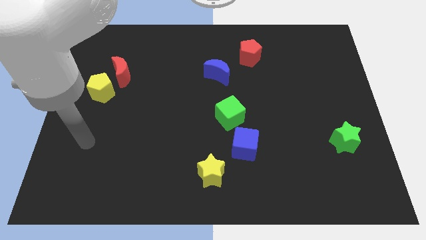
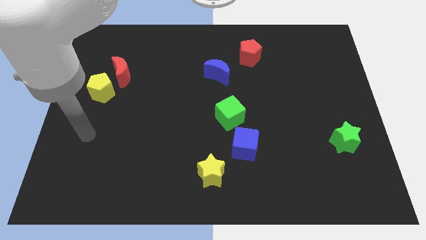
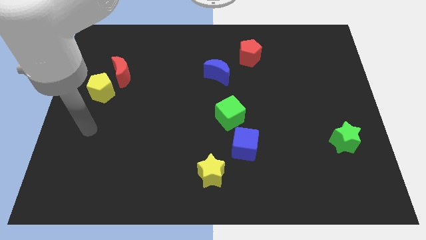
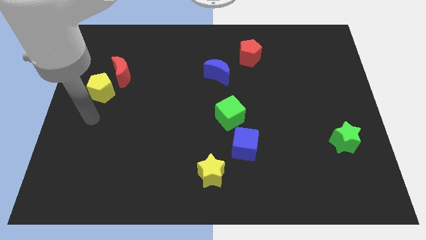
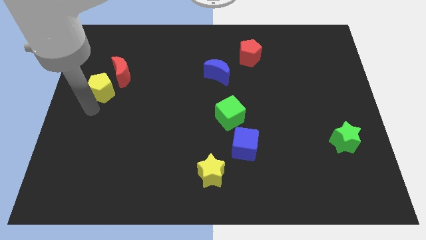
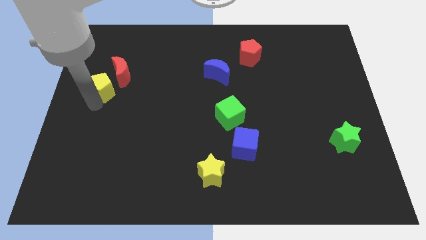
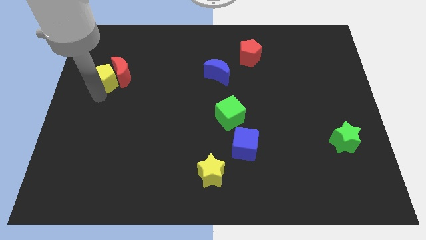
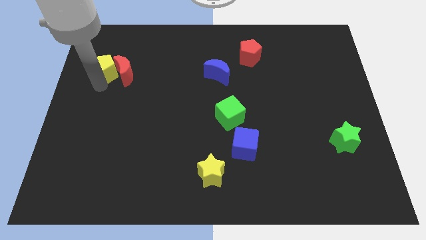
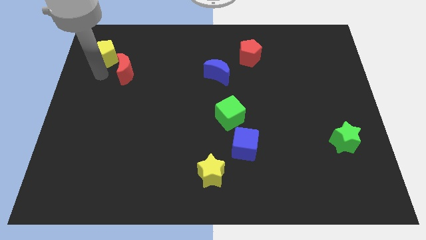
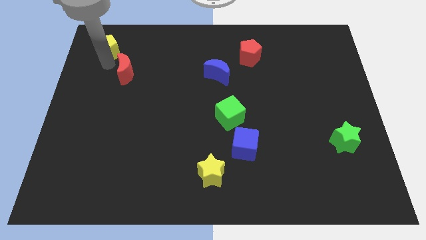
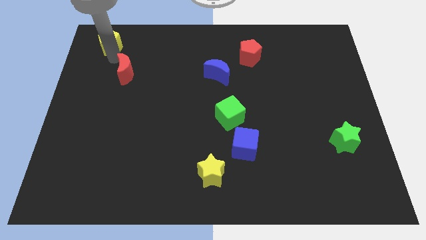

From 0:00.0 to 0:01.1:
pull the red moon apart from the yellow pentagon

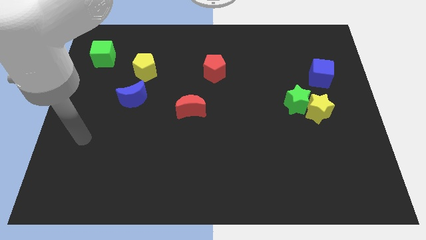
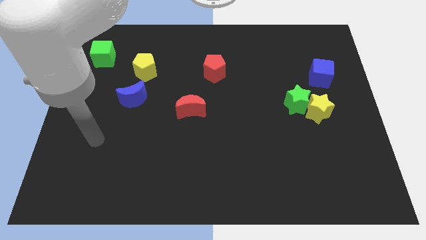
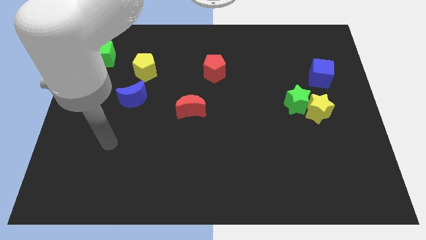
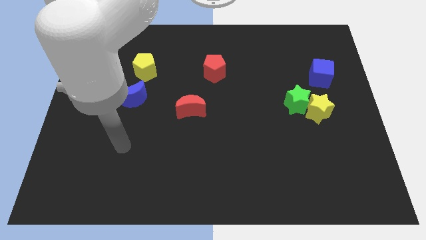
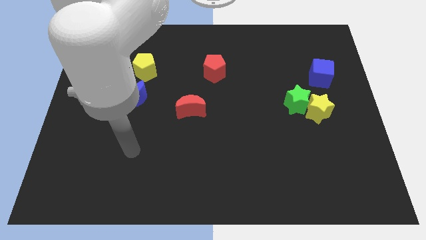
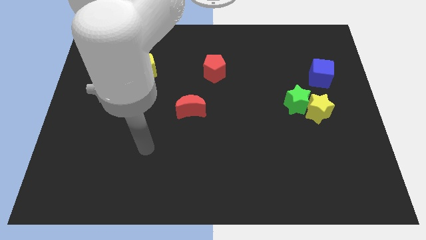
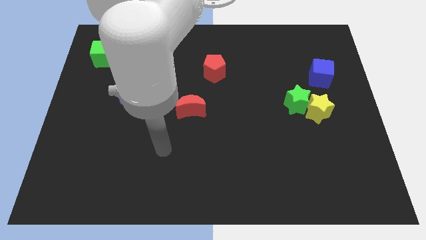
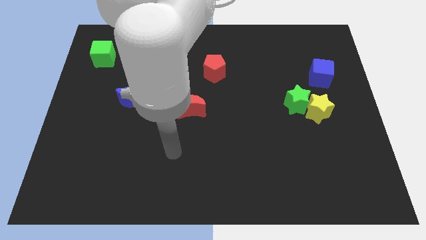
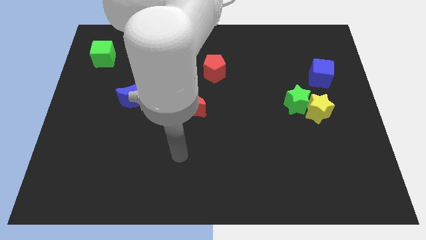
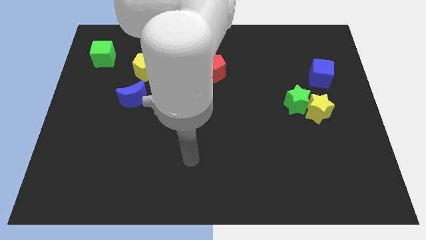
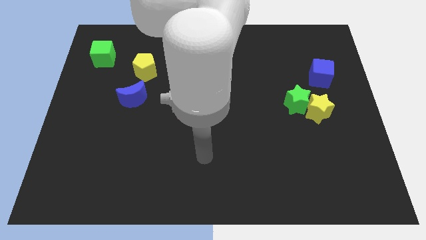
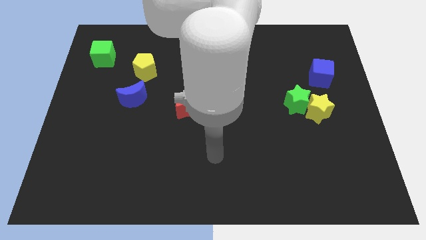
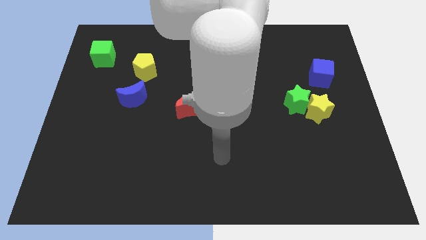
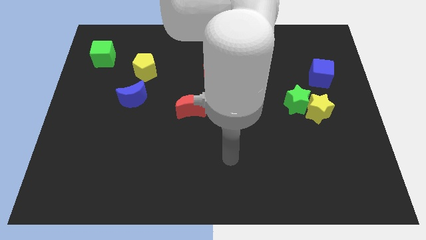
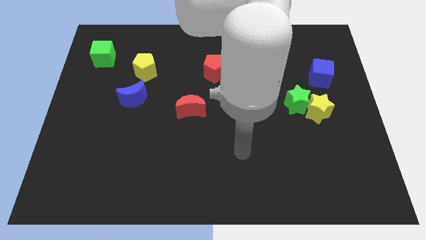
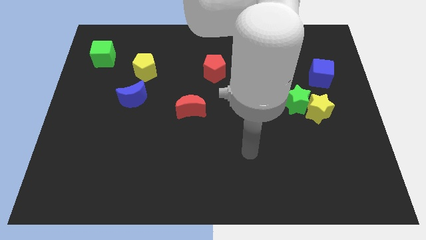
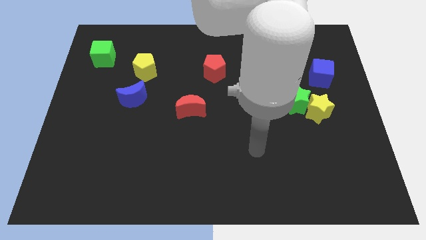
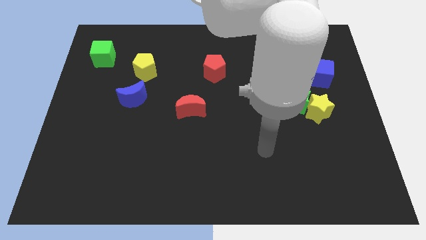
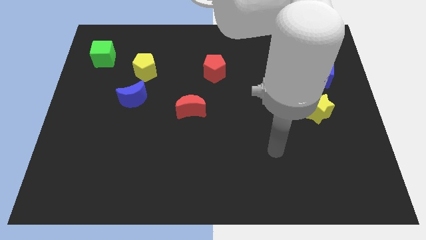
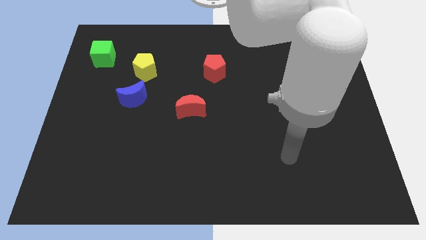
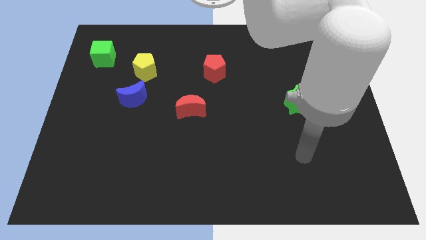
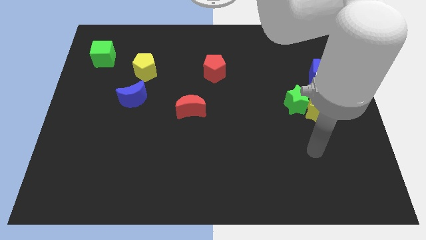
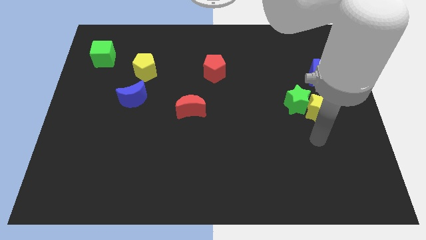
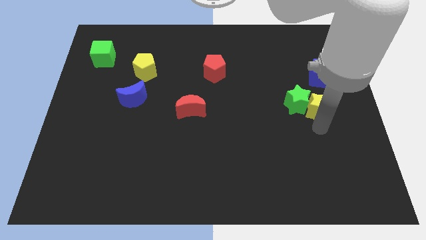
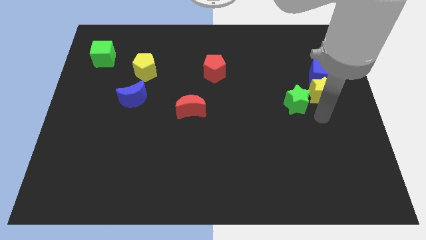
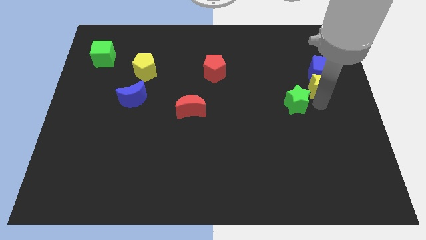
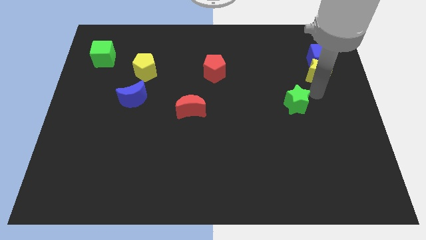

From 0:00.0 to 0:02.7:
pull the green star apart from the yellow star

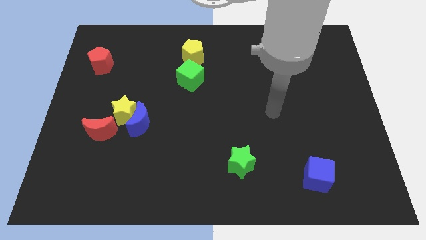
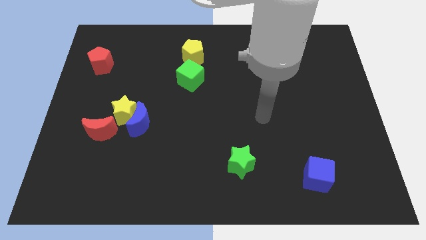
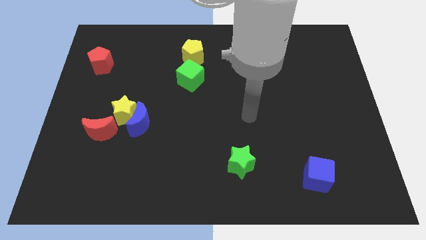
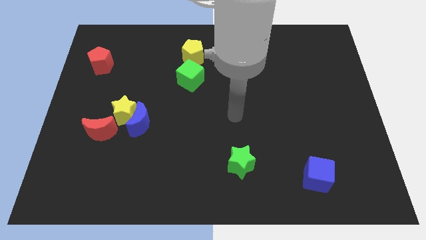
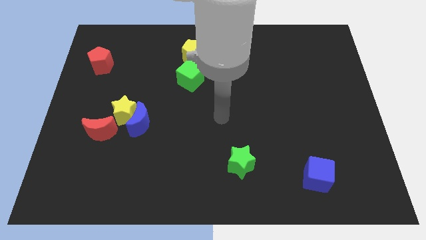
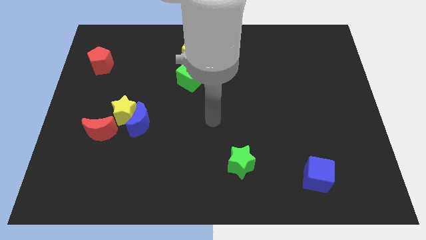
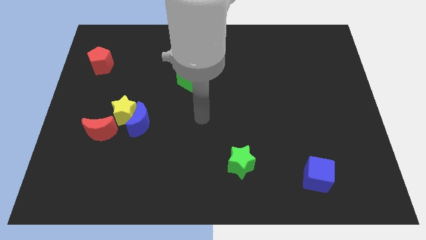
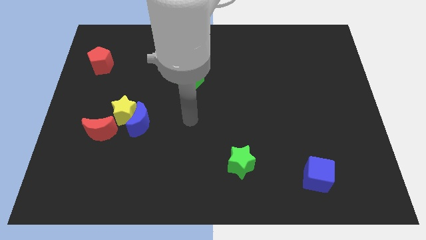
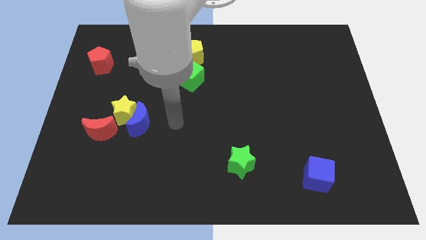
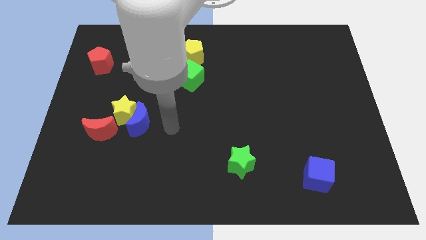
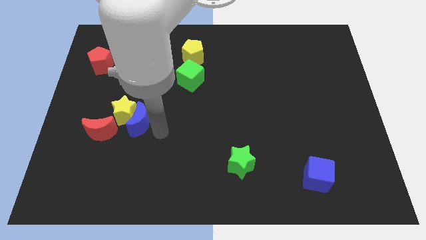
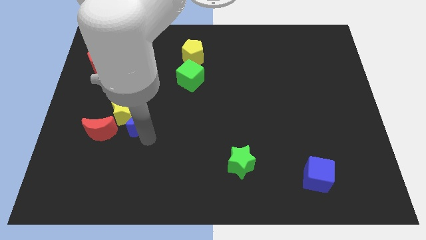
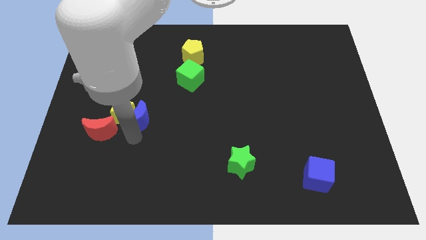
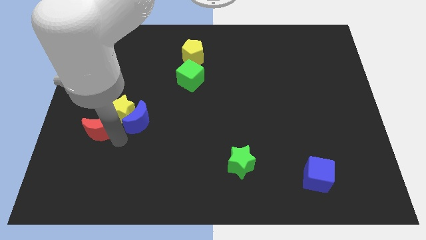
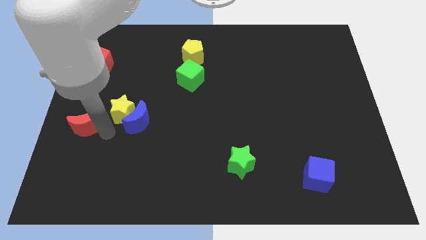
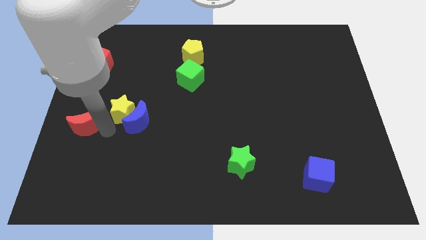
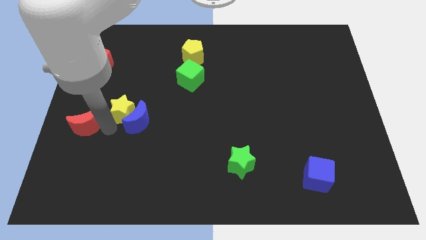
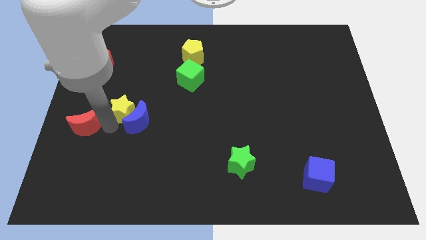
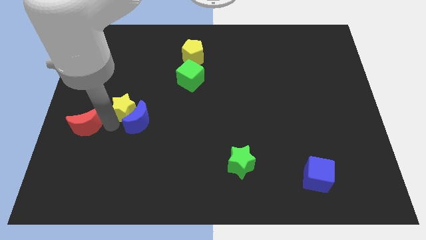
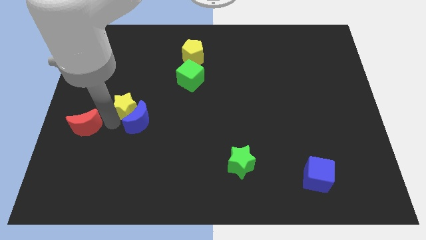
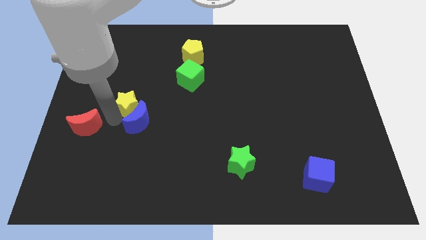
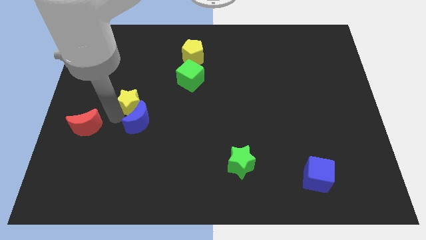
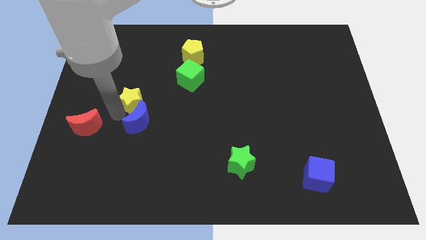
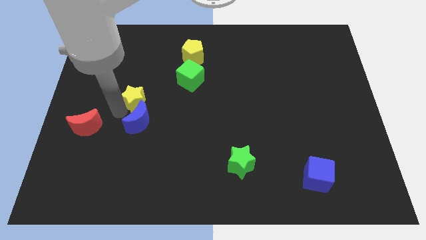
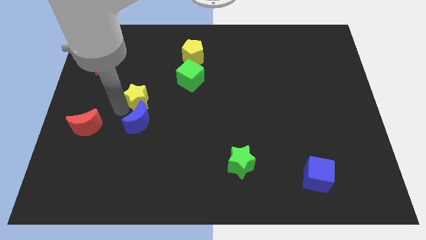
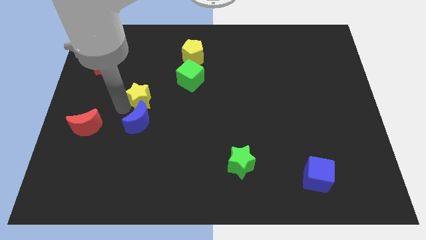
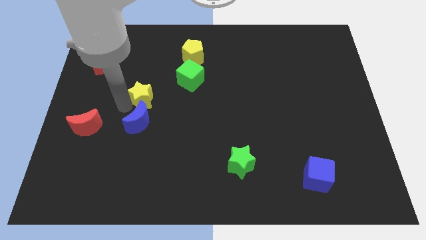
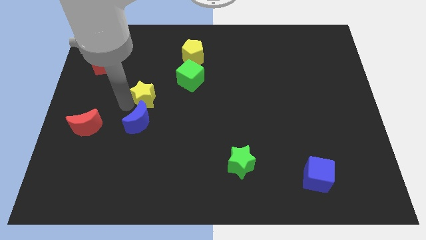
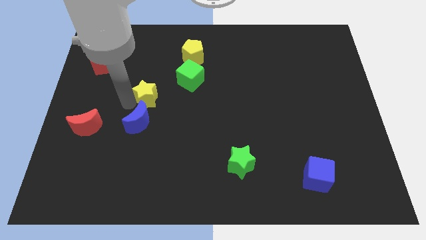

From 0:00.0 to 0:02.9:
separate the yellow star from the blue moon and red moon

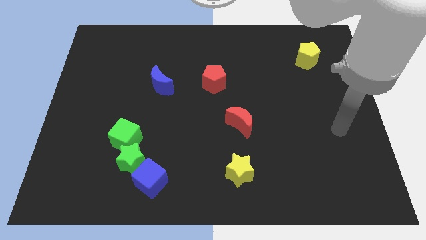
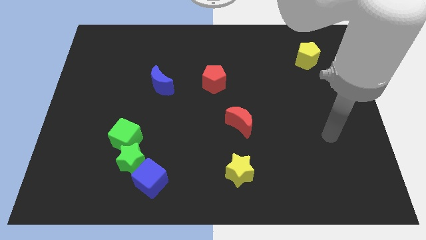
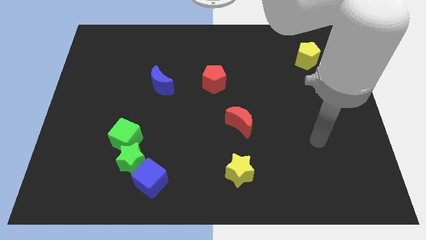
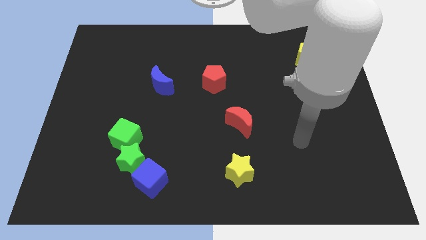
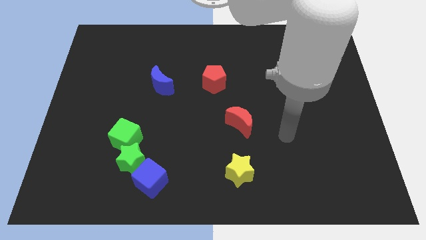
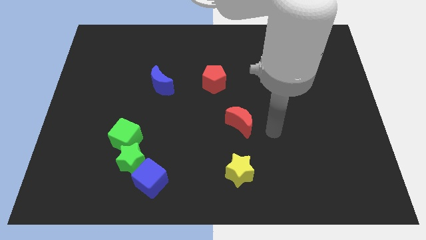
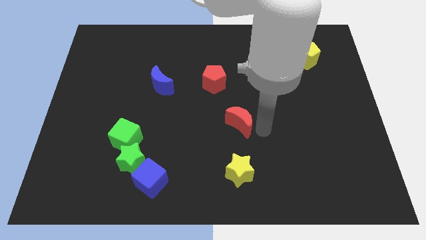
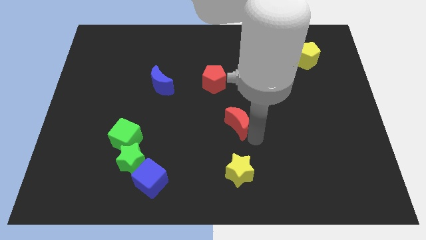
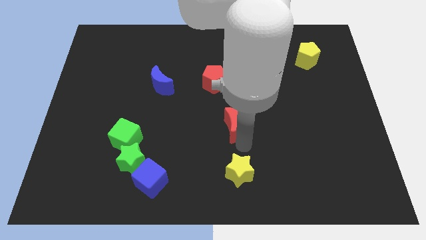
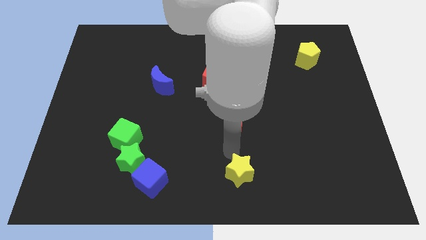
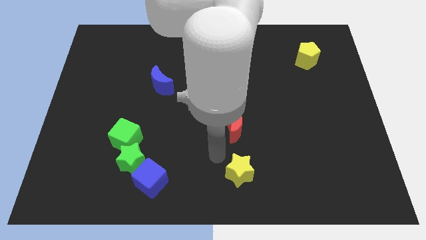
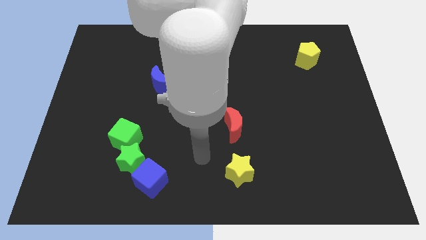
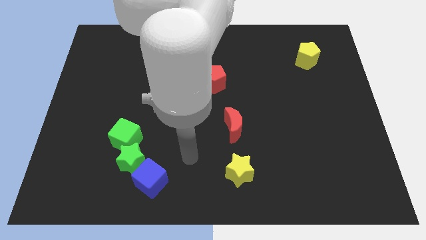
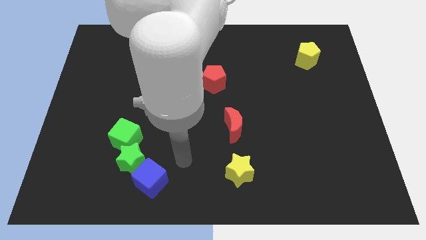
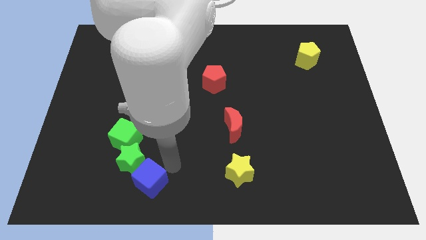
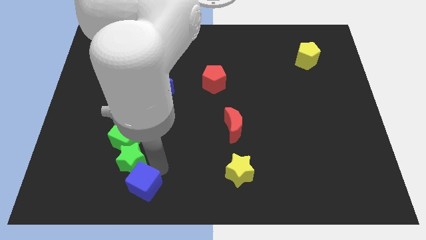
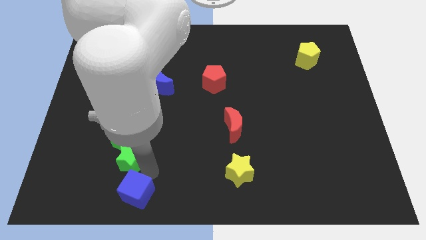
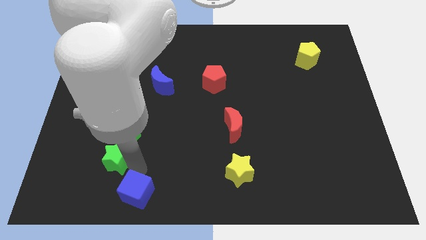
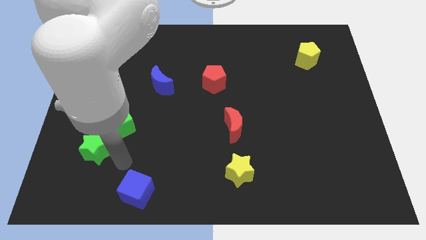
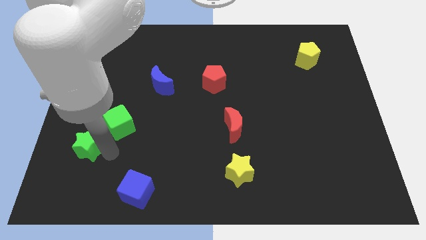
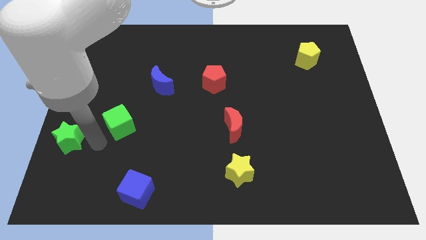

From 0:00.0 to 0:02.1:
separate the green cube from the green star

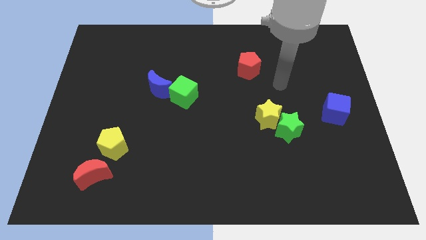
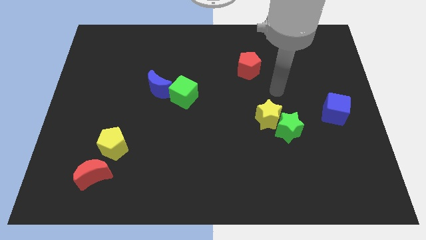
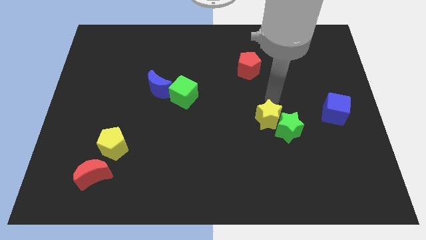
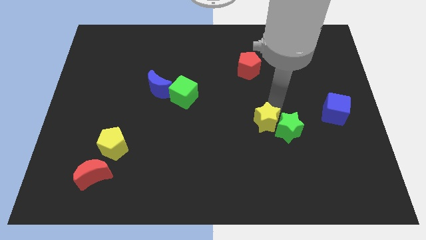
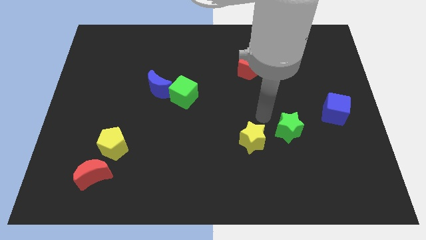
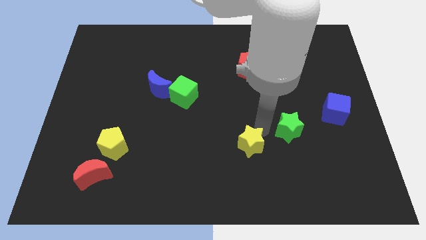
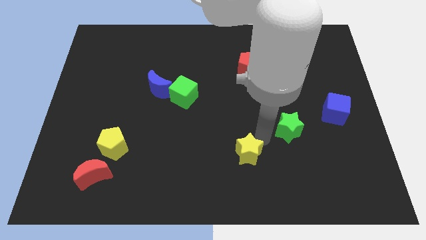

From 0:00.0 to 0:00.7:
separate the green star from the yellow star
